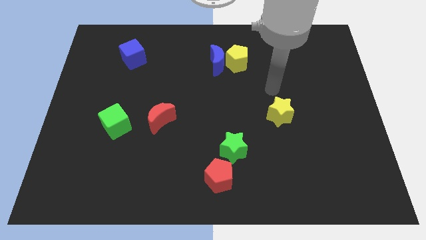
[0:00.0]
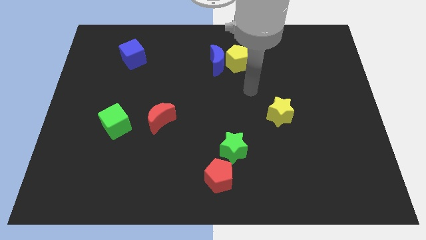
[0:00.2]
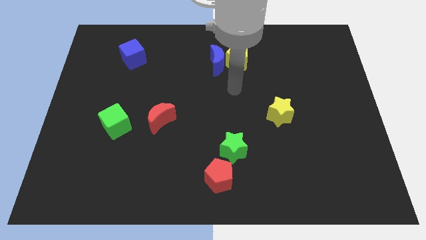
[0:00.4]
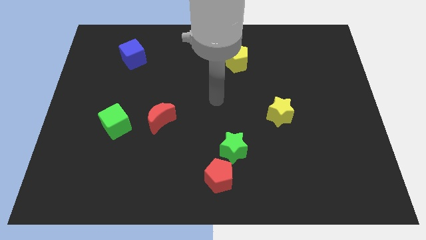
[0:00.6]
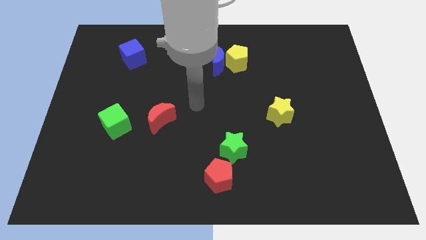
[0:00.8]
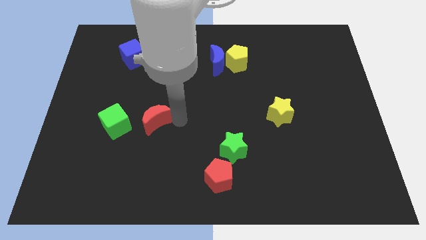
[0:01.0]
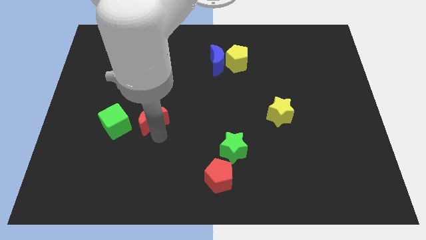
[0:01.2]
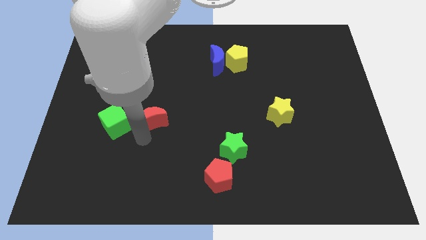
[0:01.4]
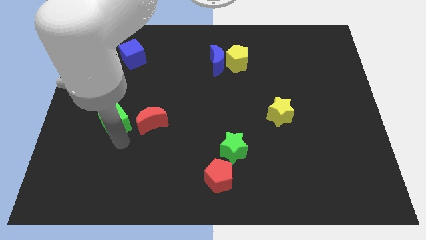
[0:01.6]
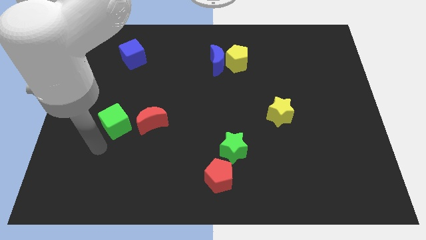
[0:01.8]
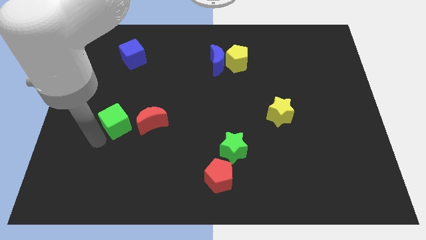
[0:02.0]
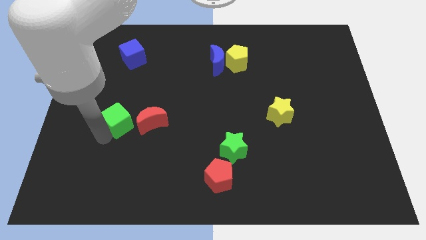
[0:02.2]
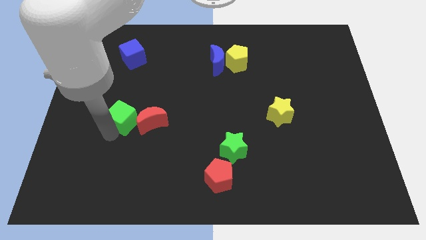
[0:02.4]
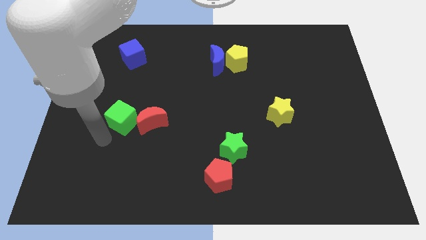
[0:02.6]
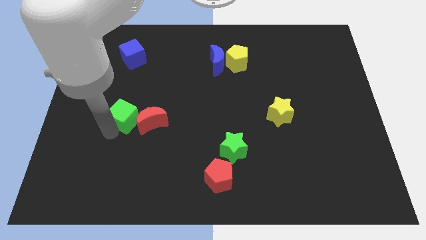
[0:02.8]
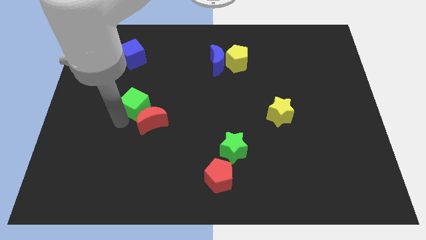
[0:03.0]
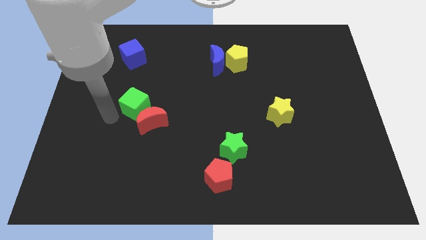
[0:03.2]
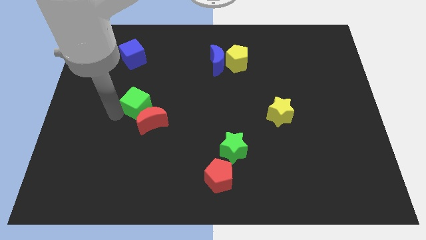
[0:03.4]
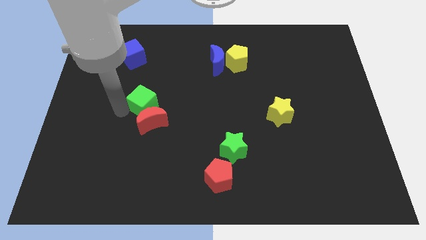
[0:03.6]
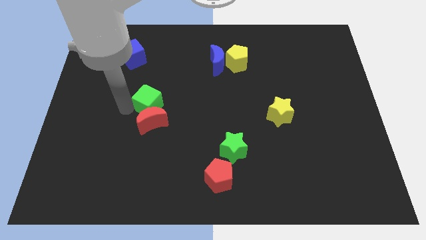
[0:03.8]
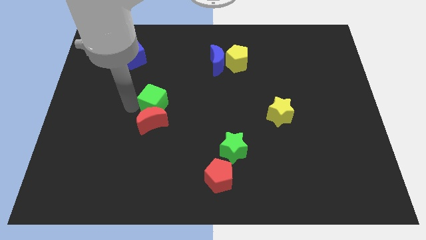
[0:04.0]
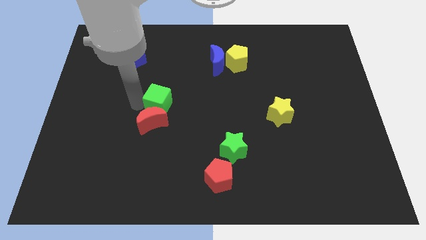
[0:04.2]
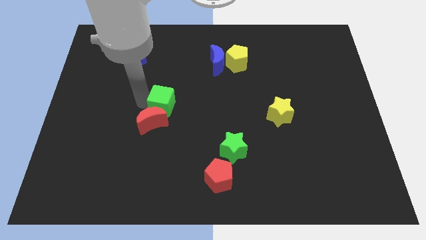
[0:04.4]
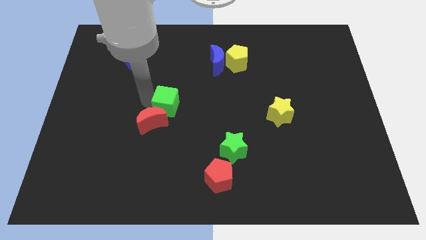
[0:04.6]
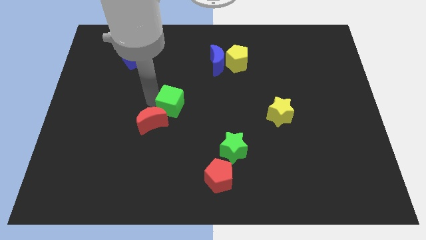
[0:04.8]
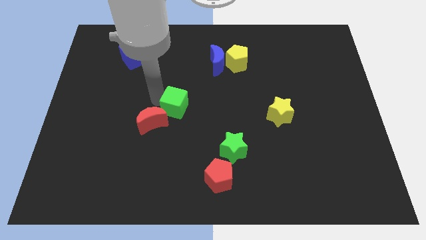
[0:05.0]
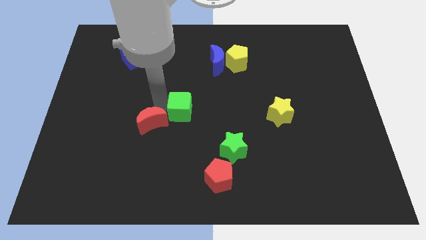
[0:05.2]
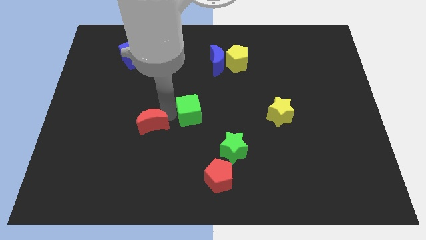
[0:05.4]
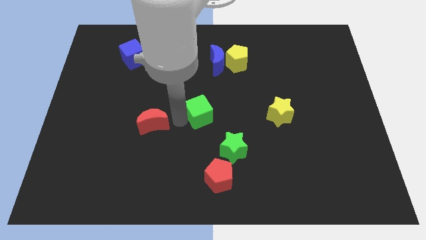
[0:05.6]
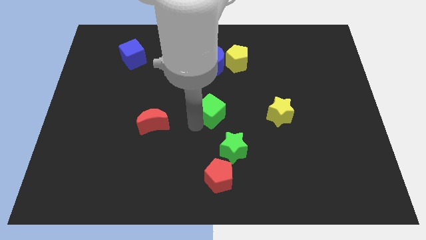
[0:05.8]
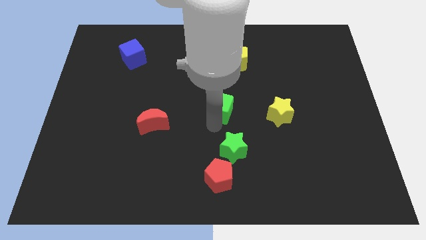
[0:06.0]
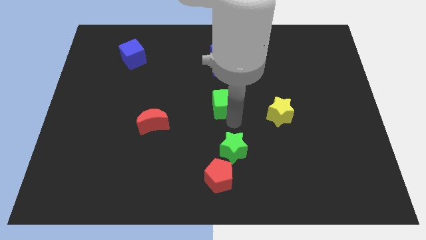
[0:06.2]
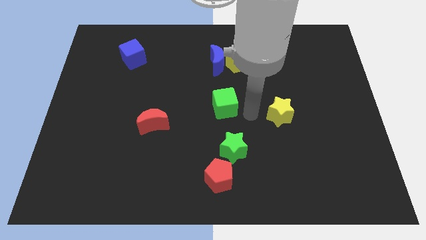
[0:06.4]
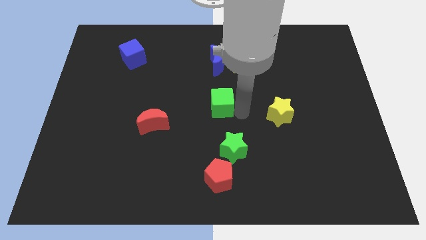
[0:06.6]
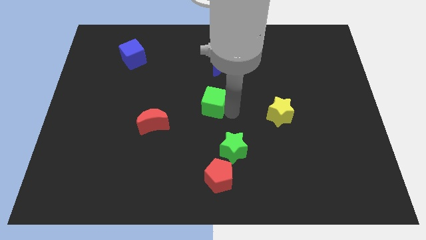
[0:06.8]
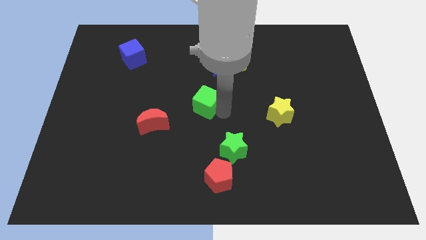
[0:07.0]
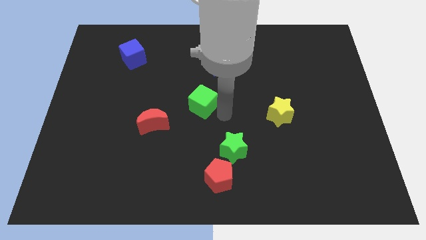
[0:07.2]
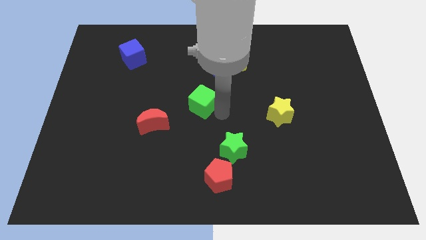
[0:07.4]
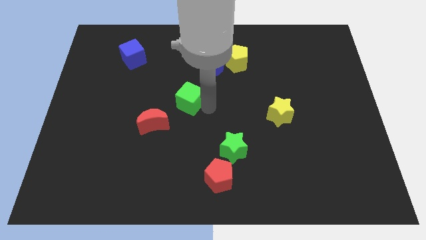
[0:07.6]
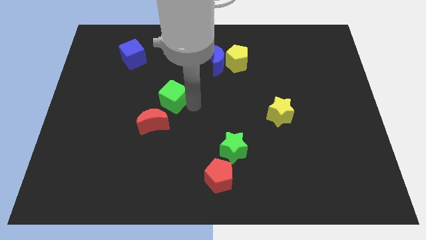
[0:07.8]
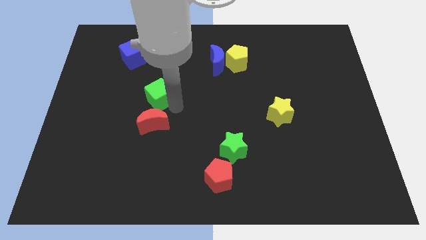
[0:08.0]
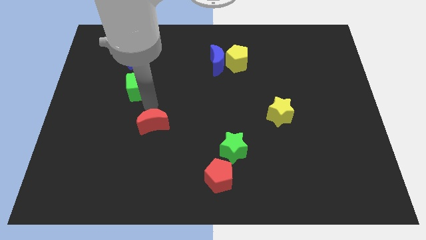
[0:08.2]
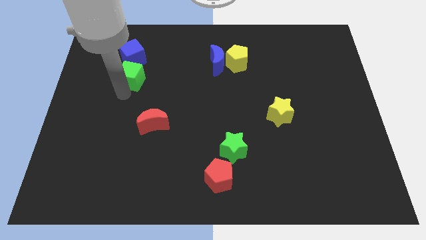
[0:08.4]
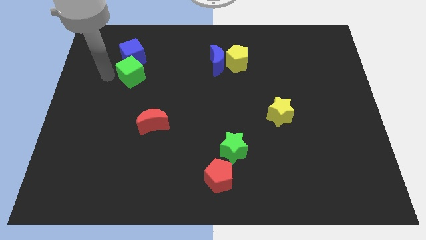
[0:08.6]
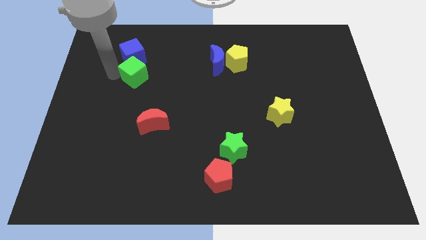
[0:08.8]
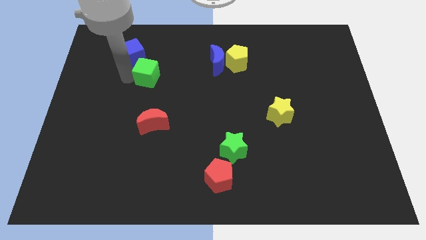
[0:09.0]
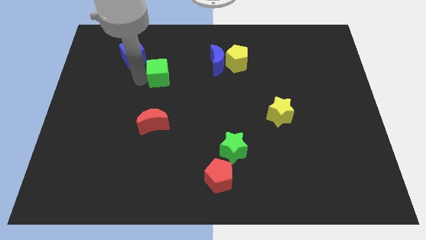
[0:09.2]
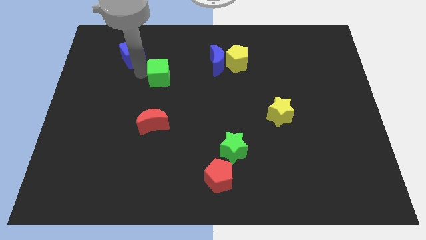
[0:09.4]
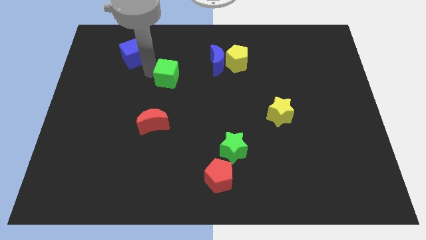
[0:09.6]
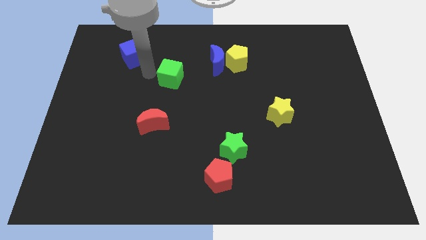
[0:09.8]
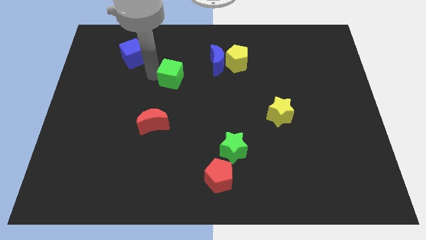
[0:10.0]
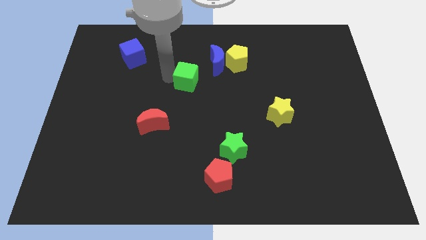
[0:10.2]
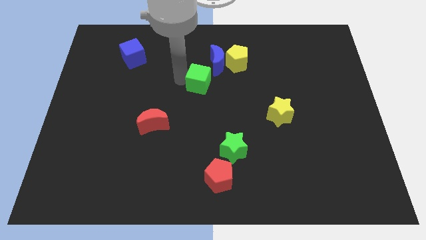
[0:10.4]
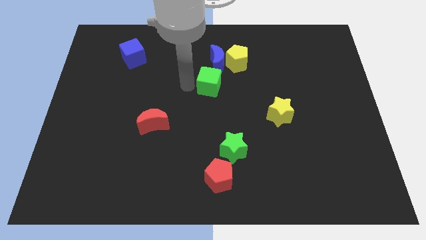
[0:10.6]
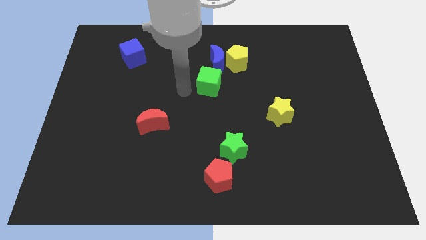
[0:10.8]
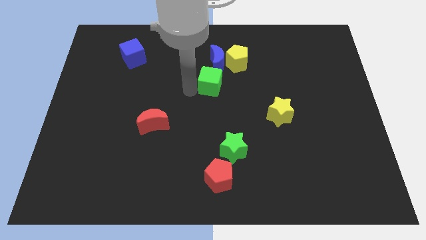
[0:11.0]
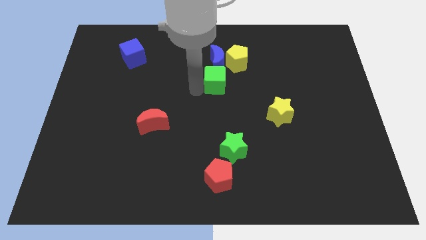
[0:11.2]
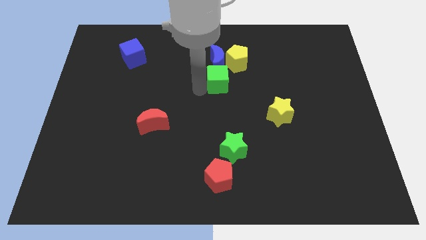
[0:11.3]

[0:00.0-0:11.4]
slide the green cube diagonally down and to the right of the blue moon

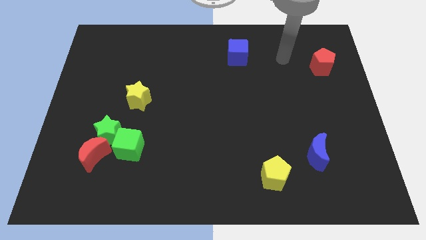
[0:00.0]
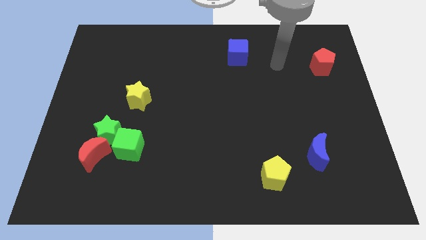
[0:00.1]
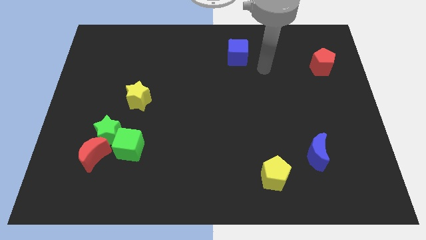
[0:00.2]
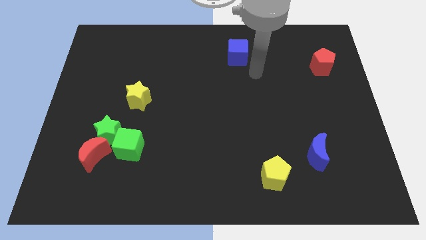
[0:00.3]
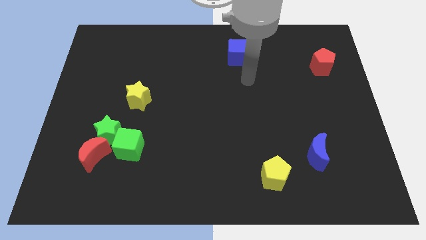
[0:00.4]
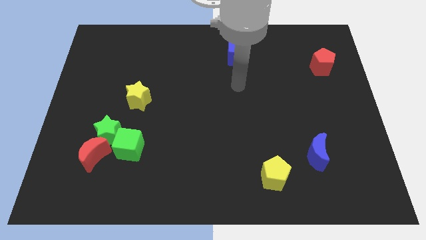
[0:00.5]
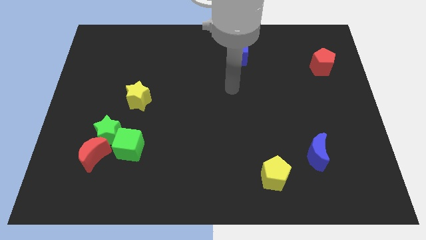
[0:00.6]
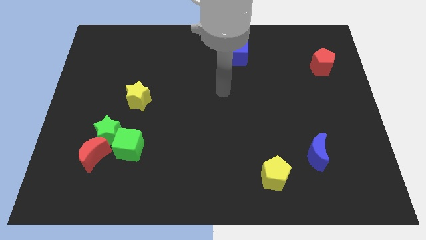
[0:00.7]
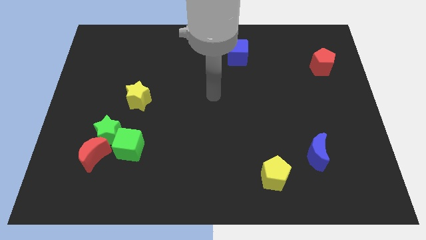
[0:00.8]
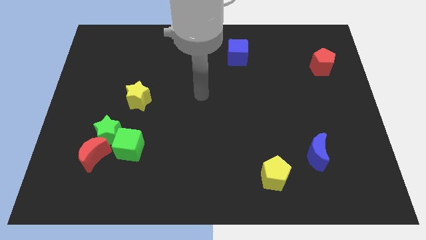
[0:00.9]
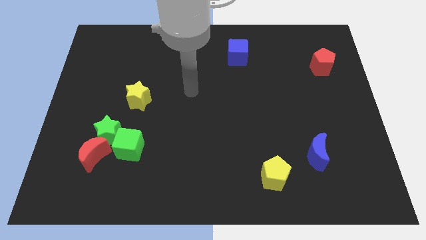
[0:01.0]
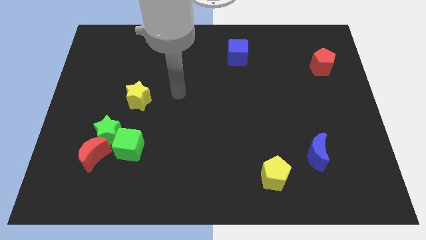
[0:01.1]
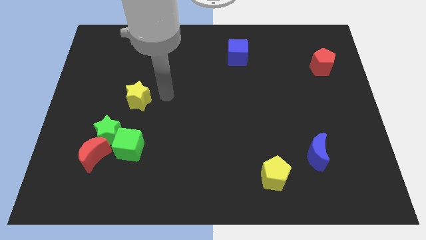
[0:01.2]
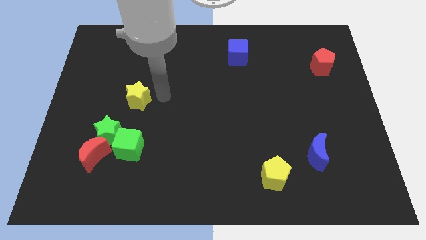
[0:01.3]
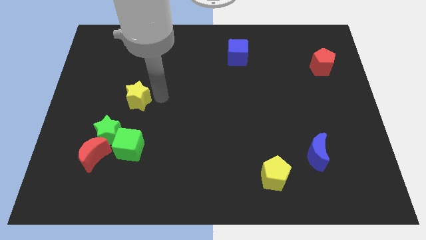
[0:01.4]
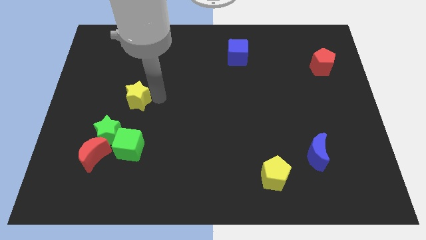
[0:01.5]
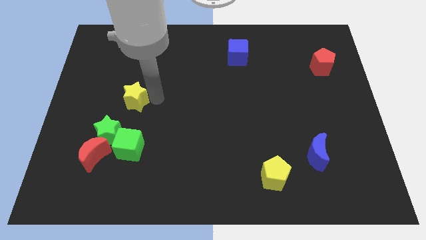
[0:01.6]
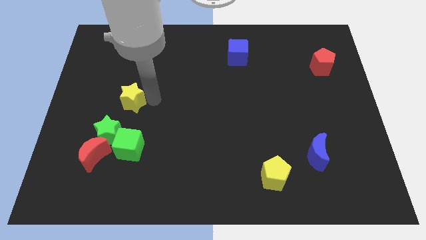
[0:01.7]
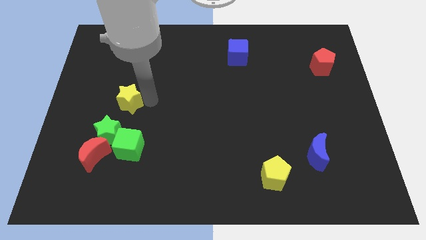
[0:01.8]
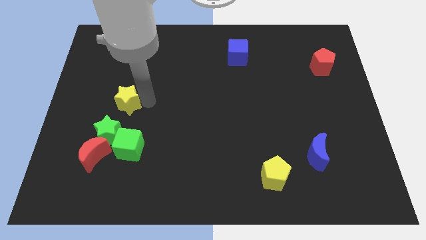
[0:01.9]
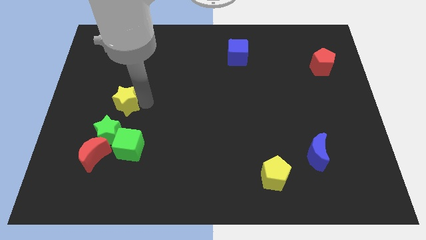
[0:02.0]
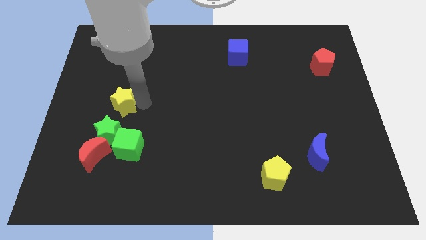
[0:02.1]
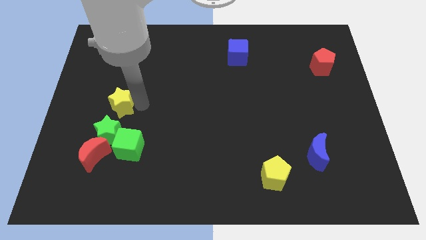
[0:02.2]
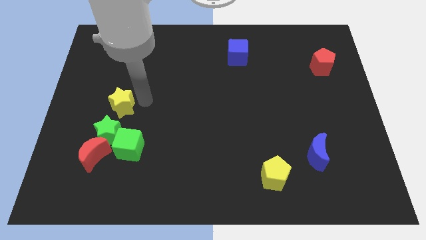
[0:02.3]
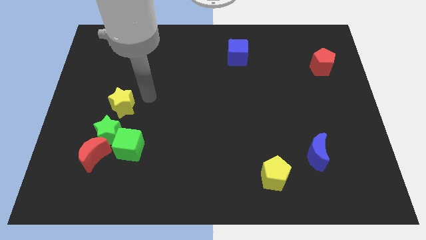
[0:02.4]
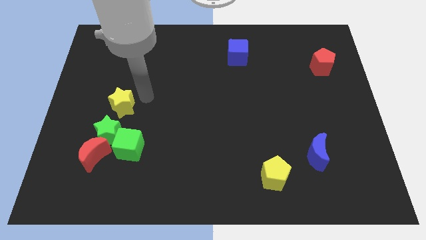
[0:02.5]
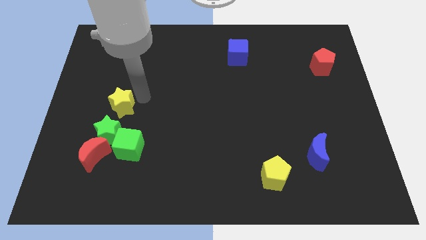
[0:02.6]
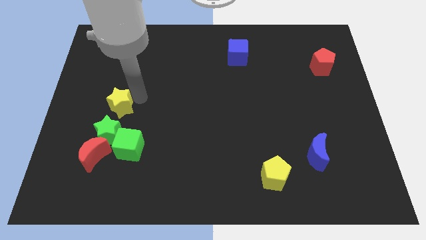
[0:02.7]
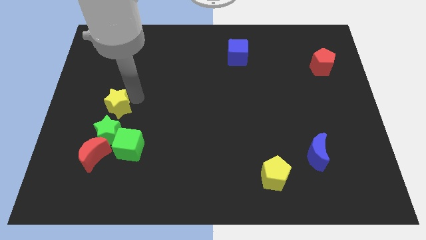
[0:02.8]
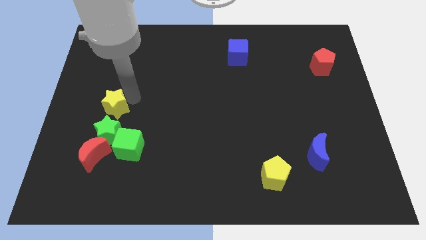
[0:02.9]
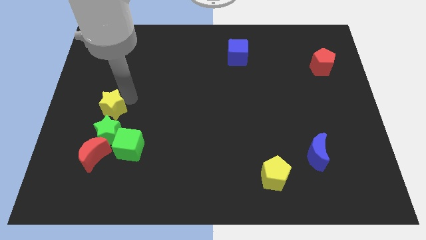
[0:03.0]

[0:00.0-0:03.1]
slide the yellow star to the top left of the green star
